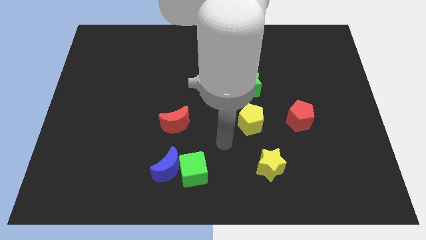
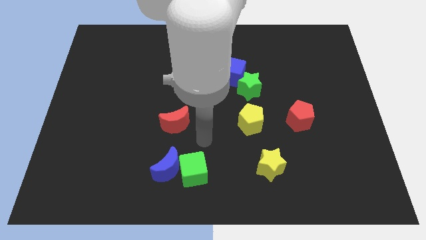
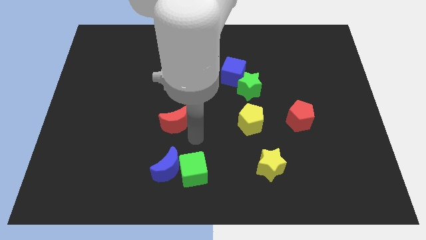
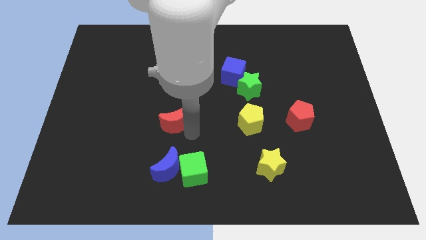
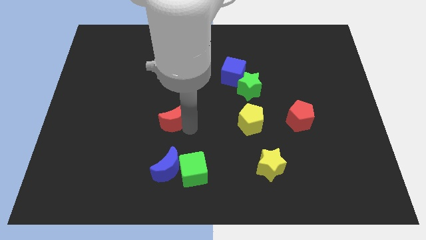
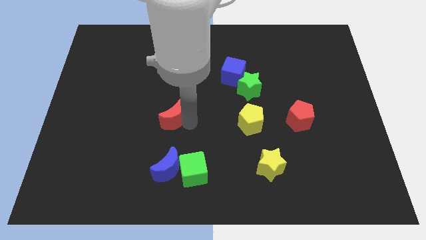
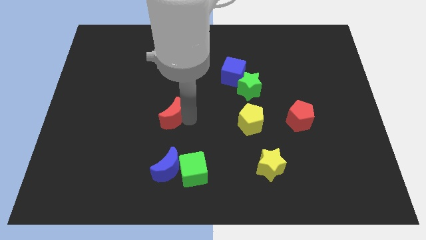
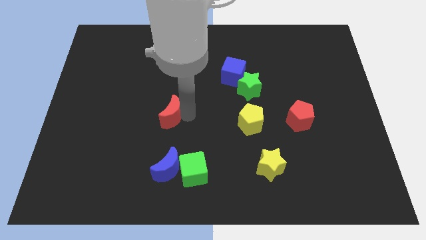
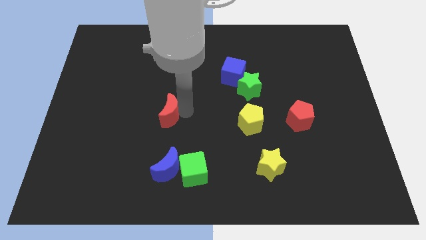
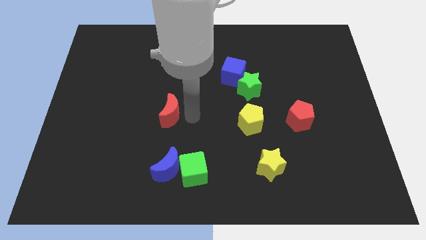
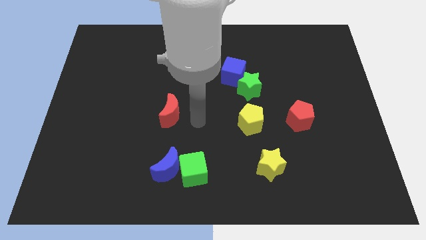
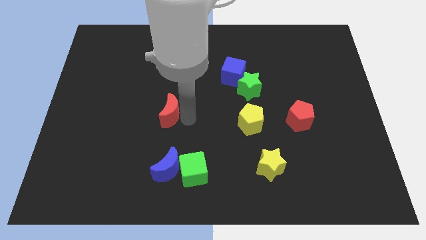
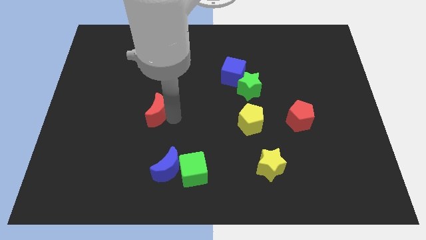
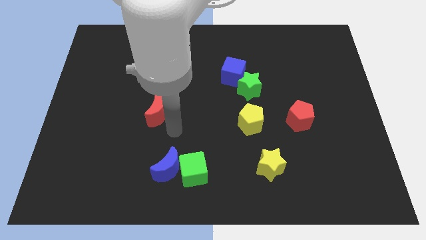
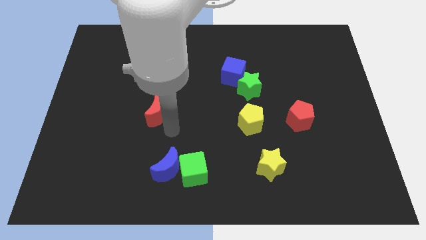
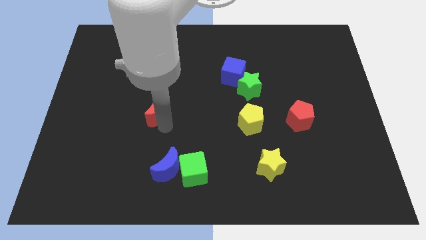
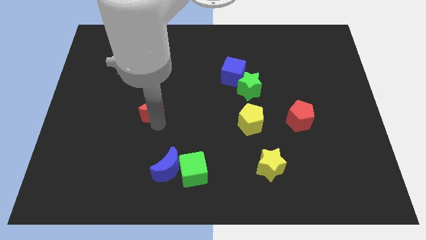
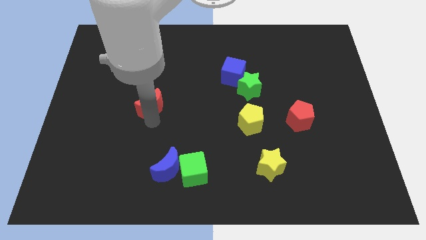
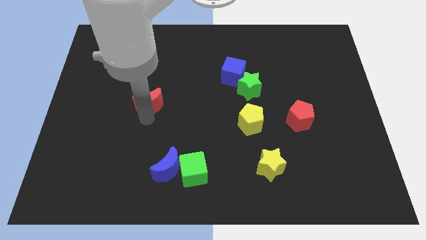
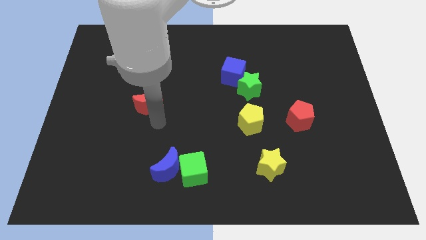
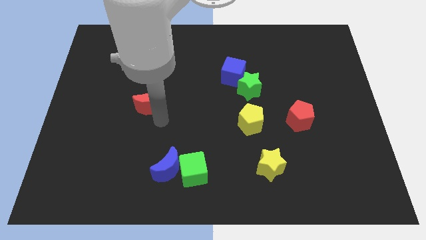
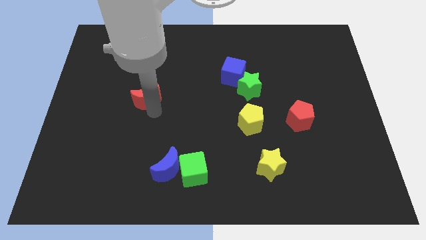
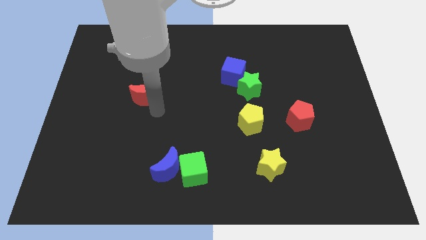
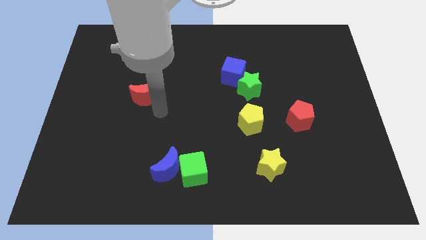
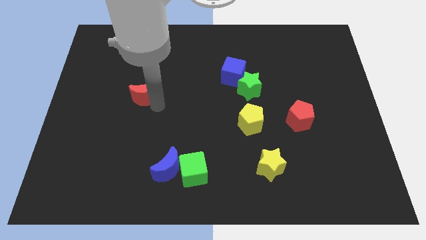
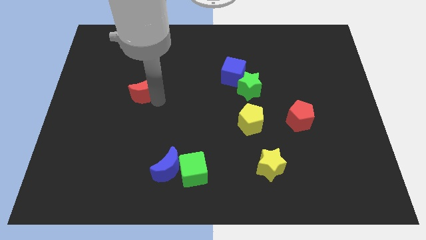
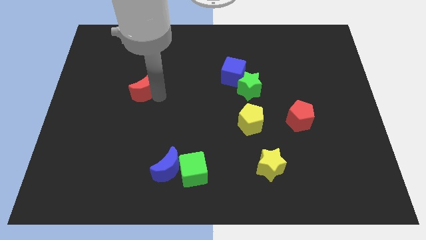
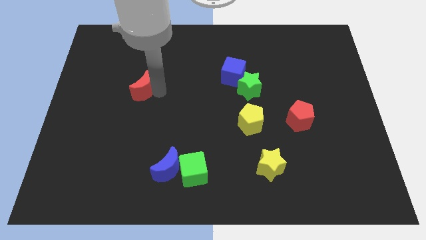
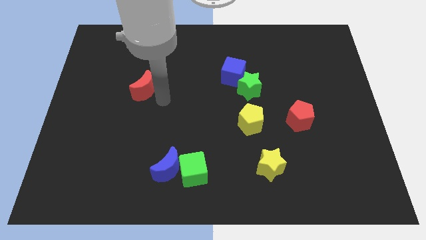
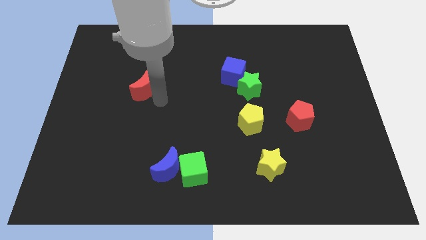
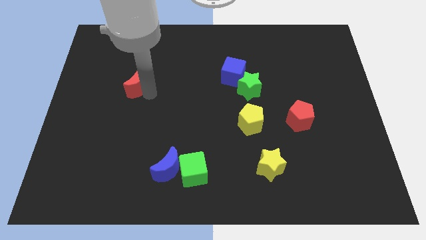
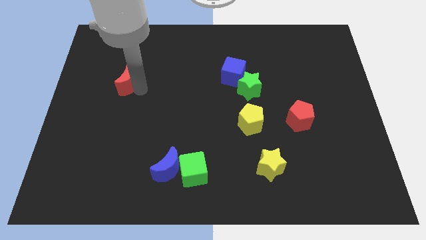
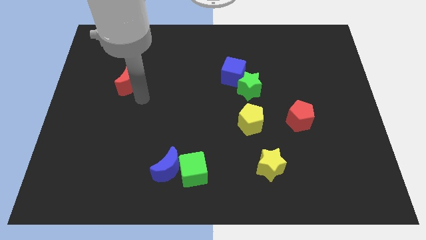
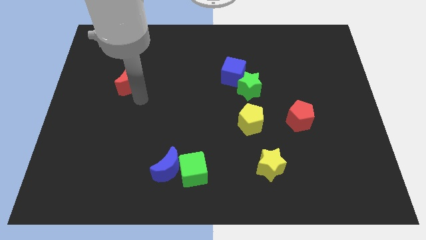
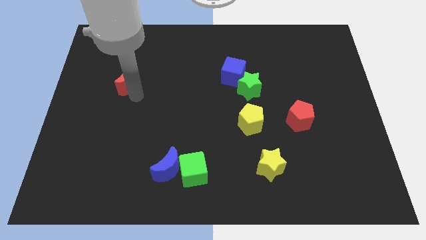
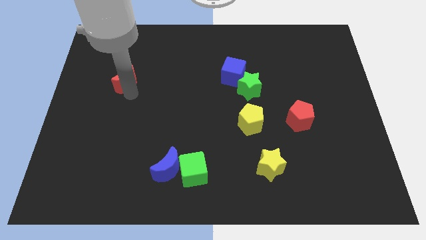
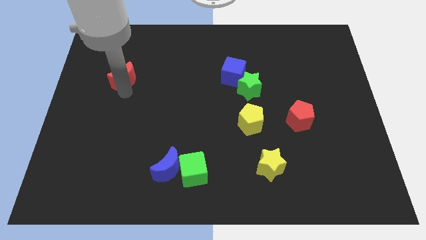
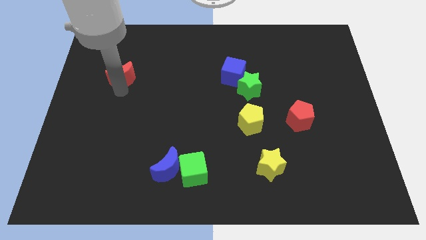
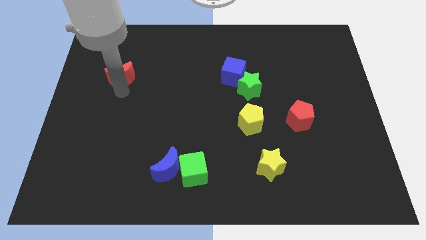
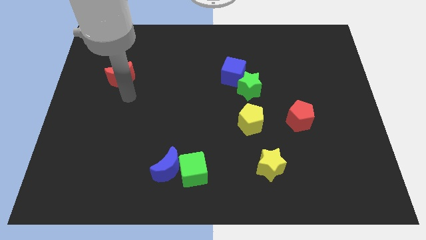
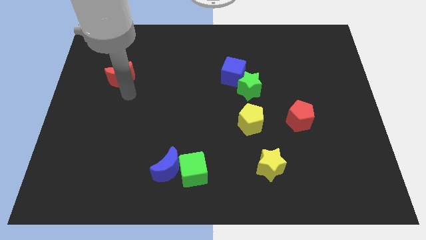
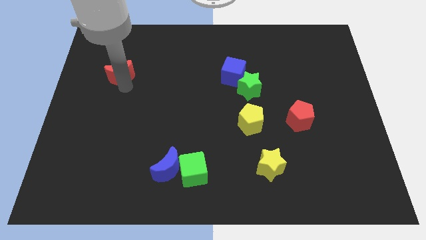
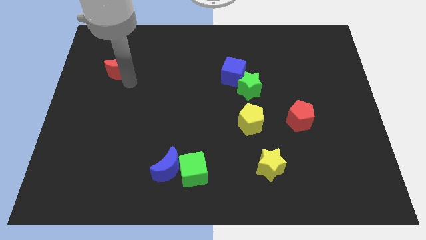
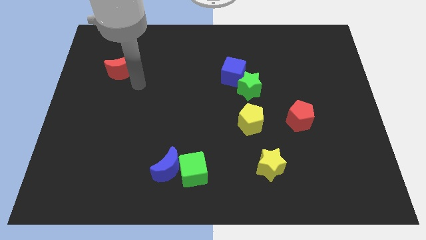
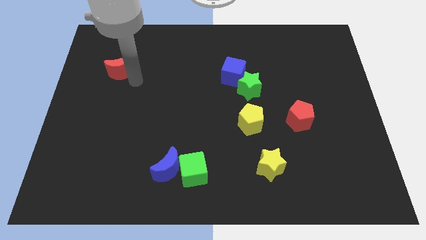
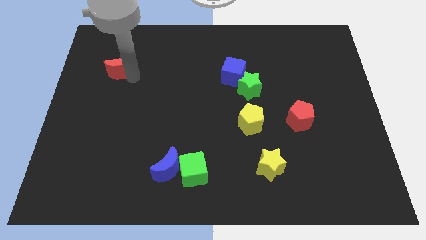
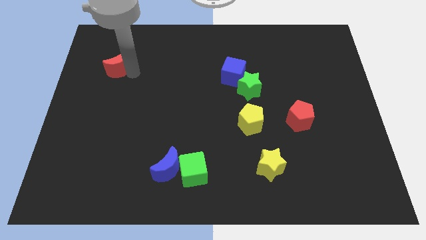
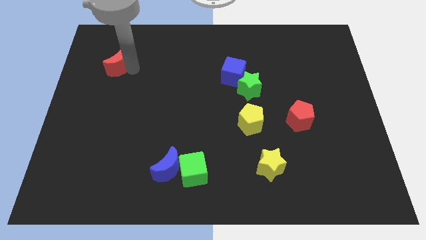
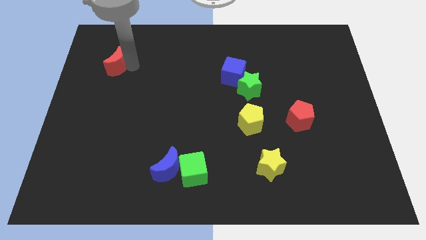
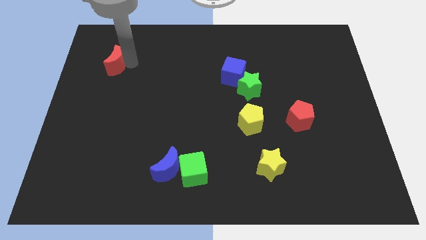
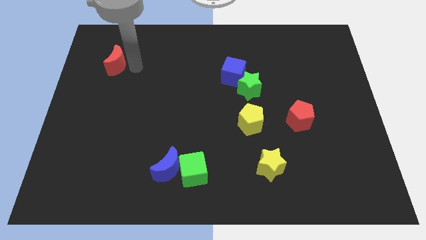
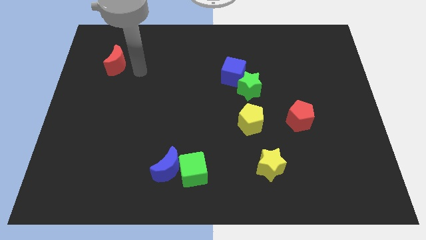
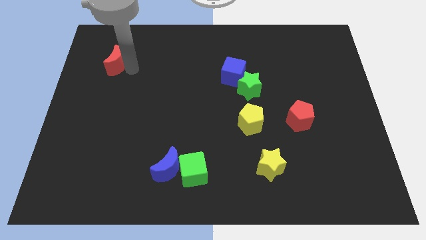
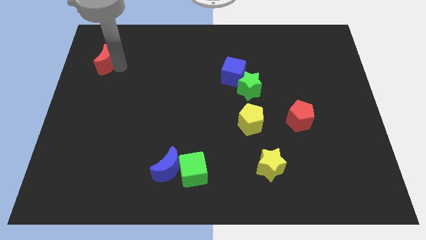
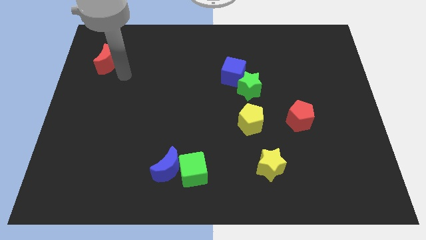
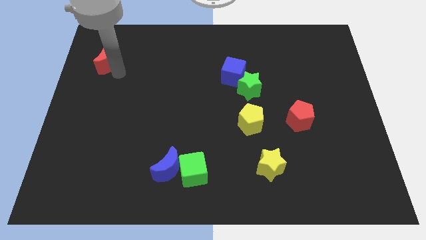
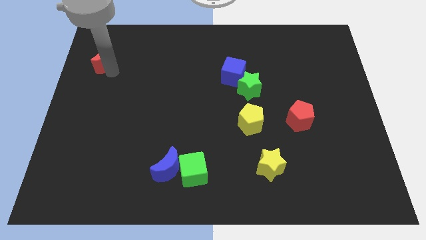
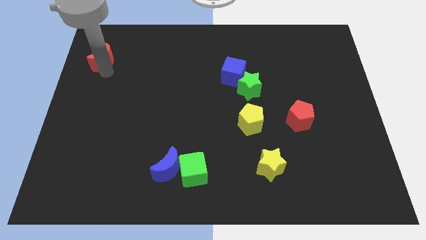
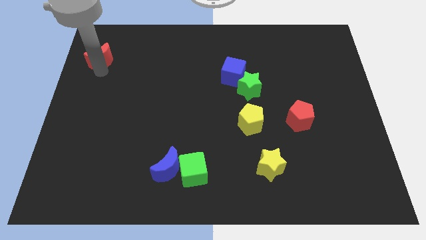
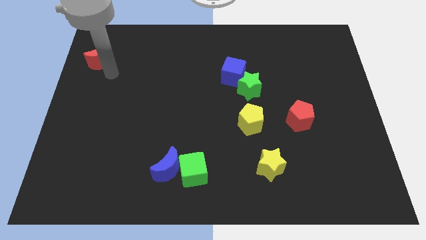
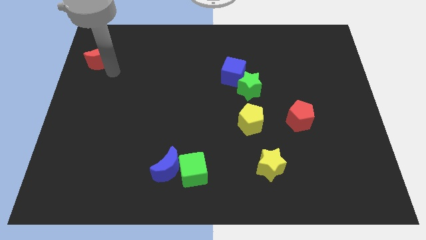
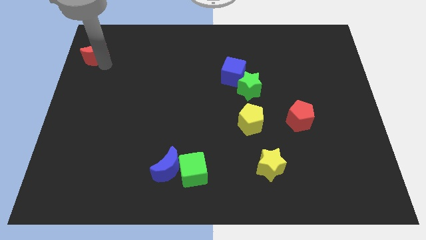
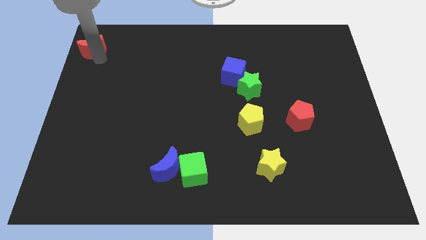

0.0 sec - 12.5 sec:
push the red moon to the top left of the board

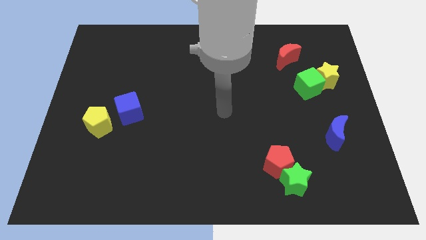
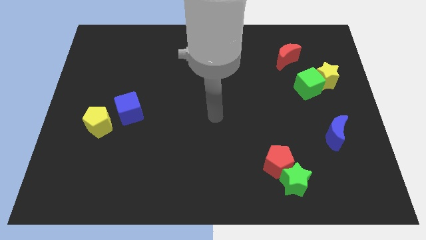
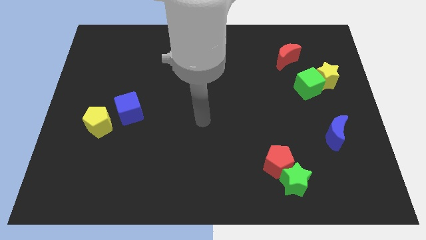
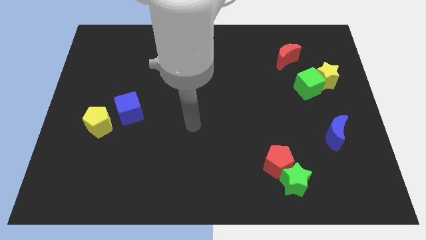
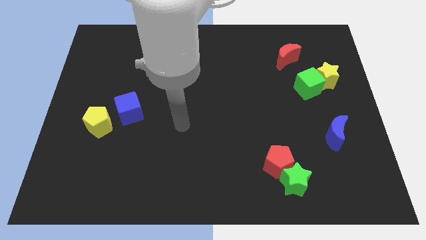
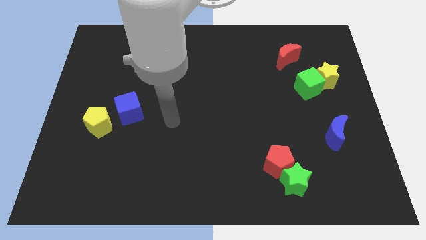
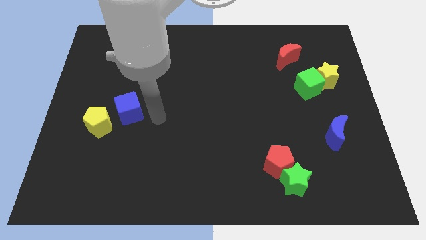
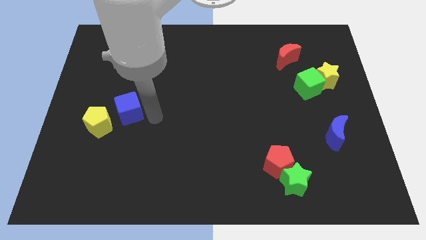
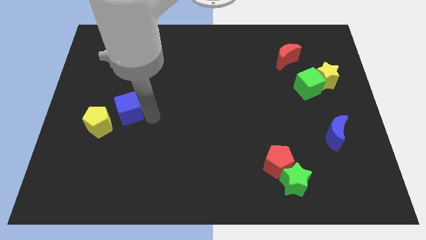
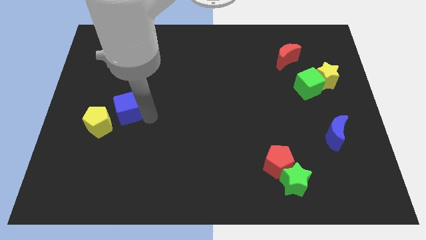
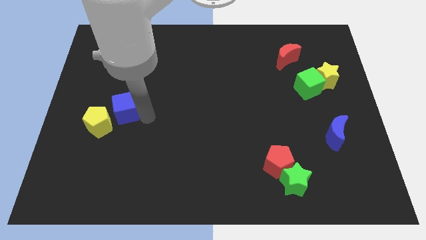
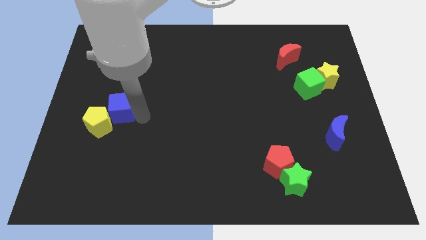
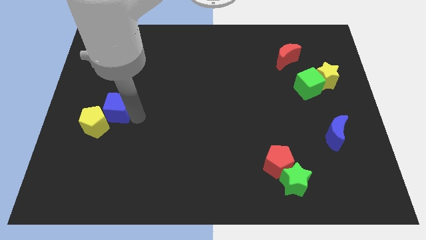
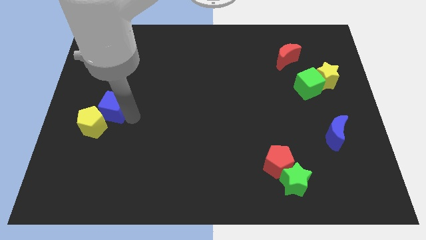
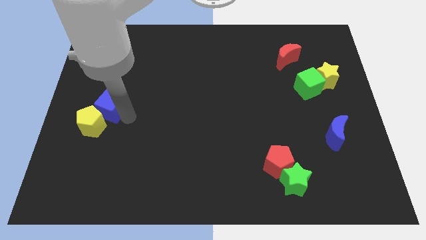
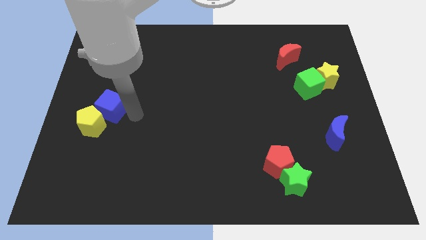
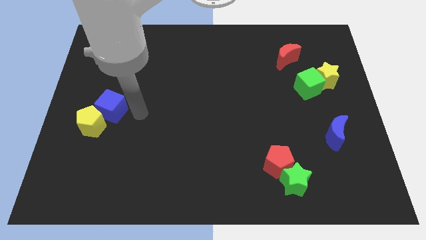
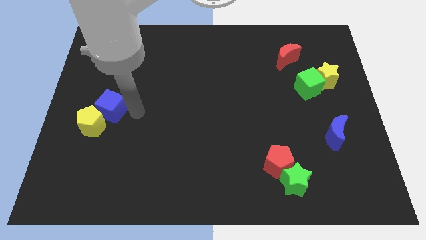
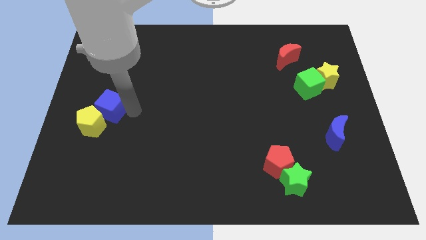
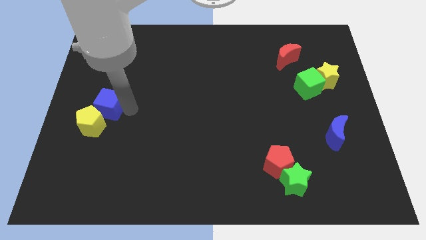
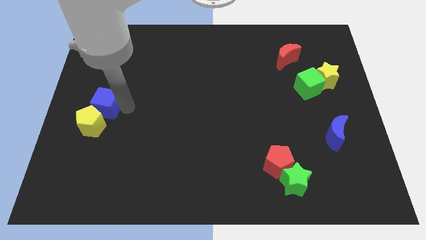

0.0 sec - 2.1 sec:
put the blue cube to the left side of the board
